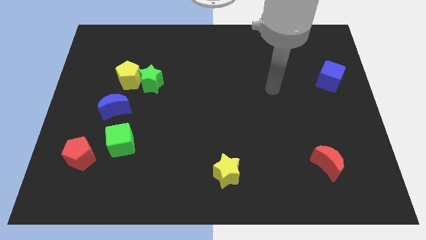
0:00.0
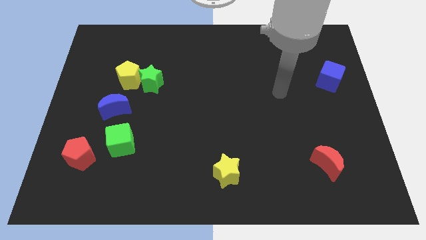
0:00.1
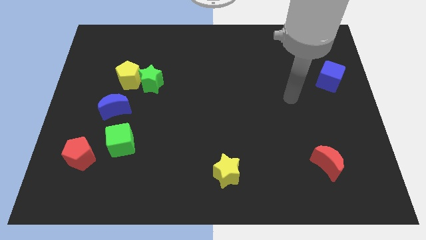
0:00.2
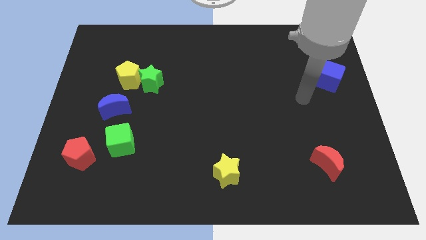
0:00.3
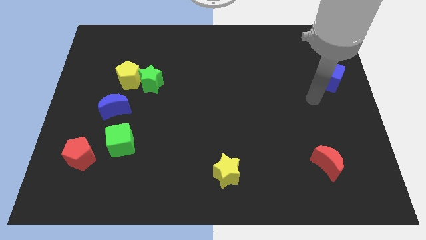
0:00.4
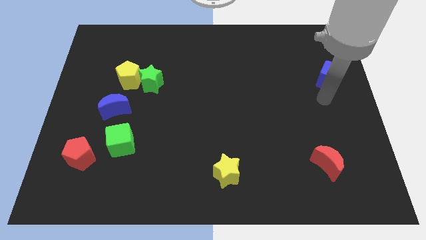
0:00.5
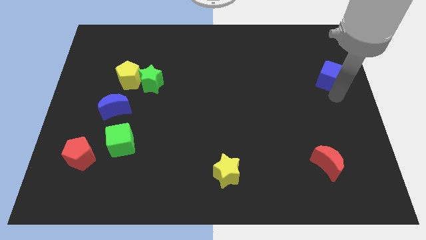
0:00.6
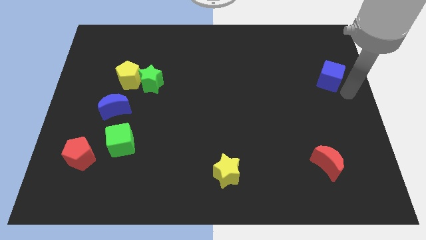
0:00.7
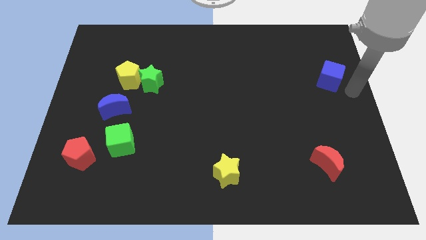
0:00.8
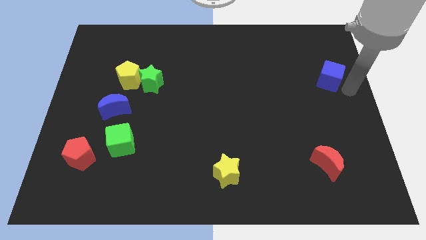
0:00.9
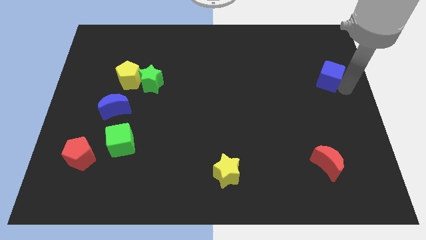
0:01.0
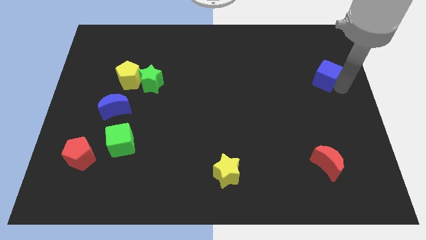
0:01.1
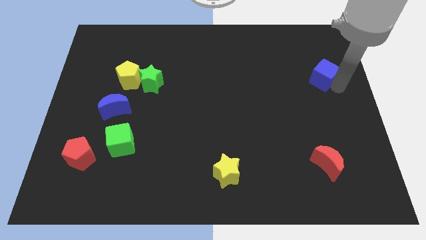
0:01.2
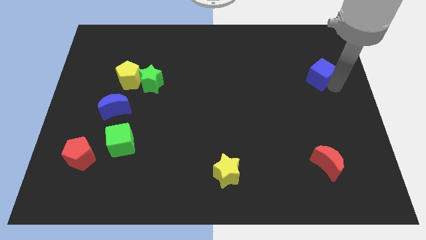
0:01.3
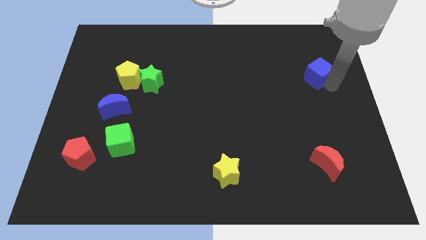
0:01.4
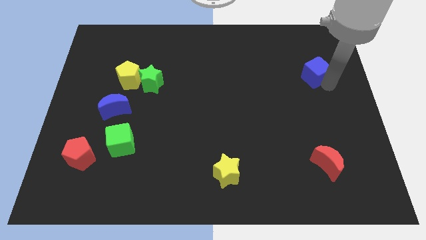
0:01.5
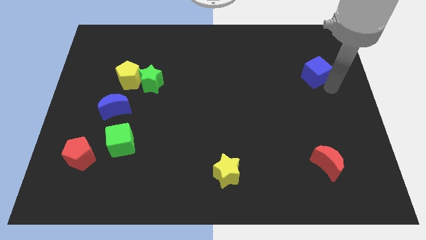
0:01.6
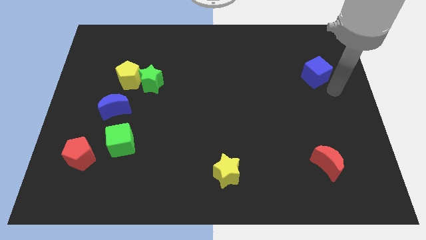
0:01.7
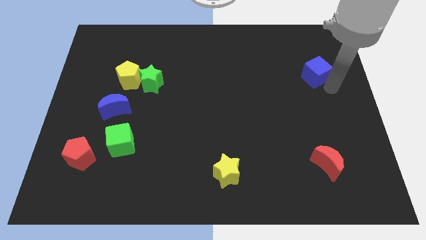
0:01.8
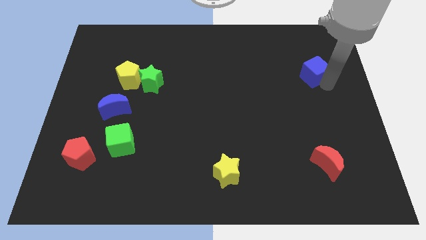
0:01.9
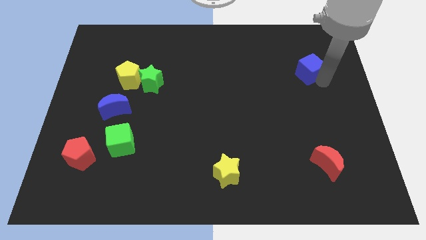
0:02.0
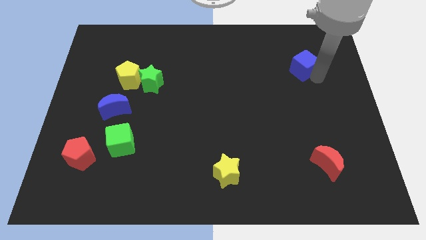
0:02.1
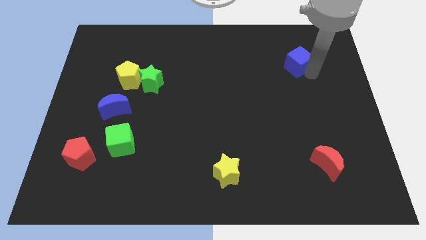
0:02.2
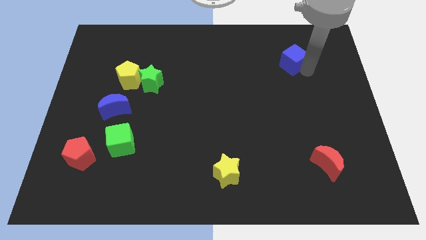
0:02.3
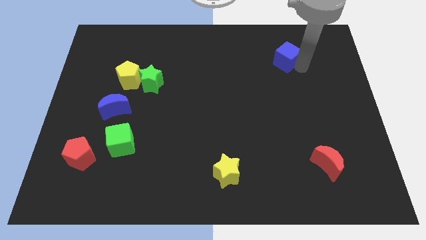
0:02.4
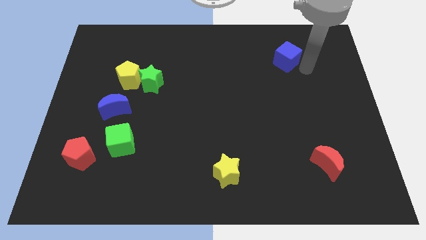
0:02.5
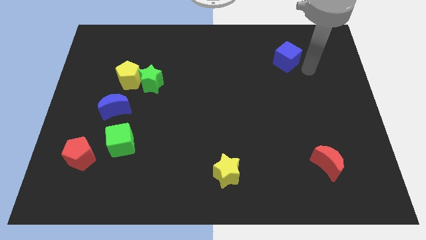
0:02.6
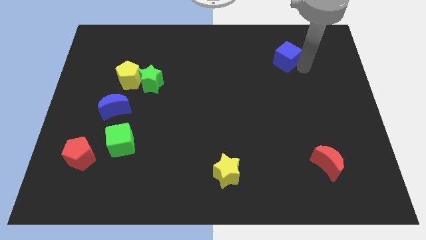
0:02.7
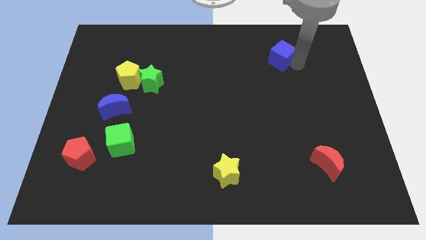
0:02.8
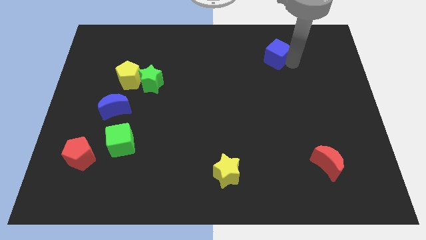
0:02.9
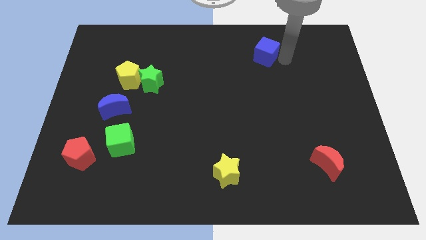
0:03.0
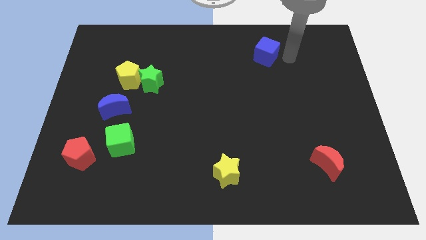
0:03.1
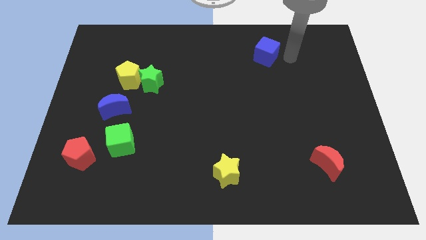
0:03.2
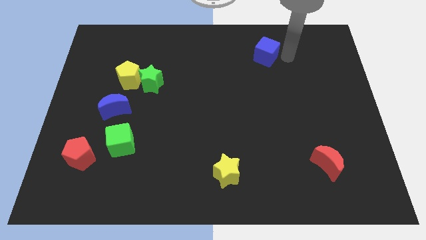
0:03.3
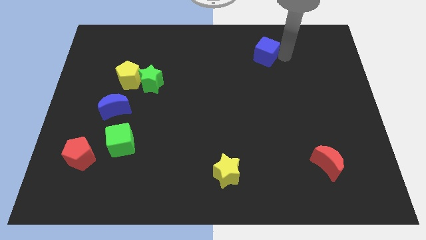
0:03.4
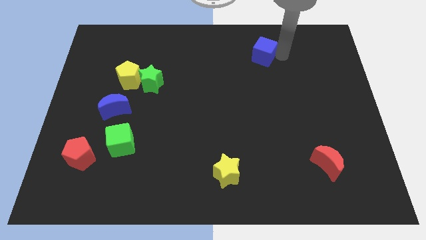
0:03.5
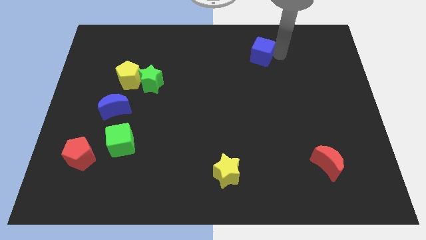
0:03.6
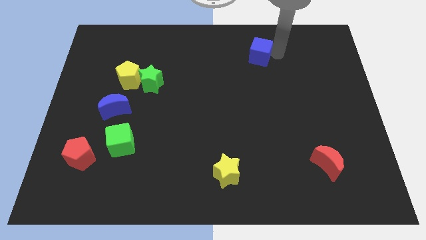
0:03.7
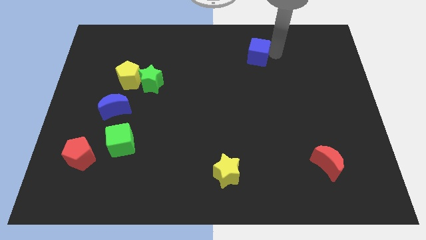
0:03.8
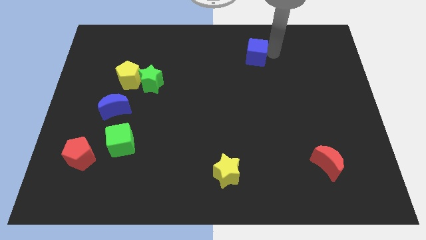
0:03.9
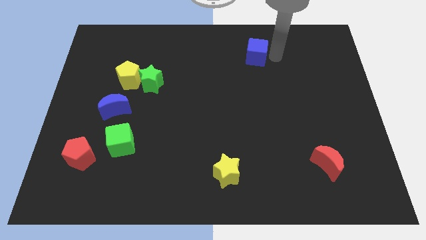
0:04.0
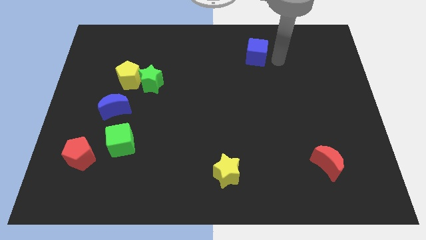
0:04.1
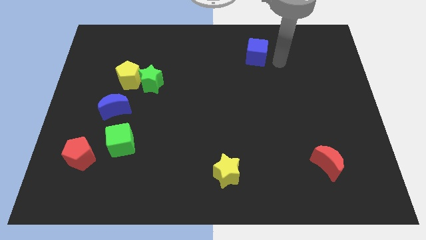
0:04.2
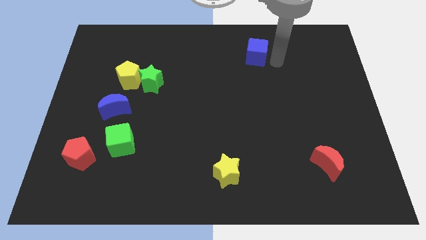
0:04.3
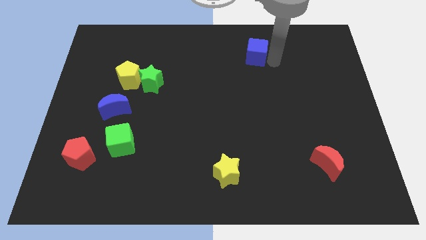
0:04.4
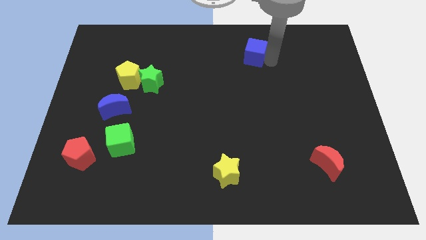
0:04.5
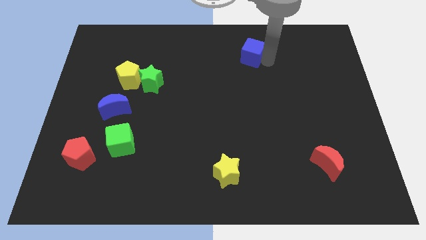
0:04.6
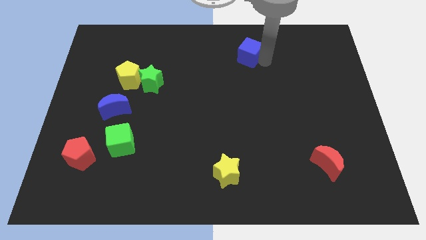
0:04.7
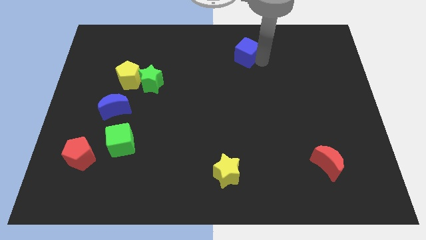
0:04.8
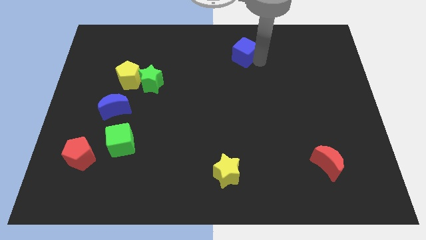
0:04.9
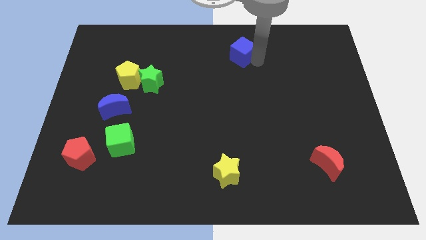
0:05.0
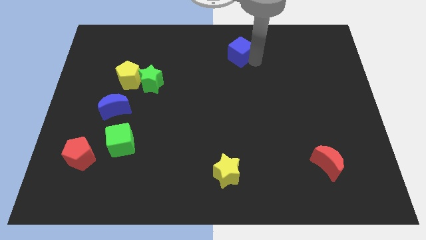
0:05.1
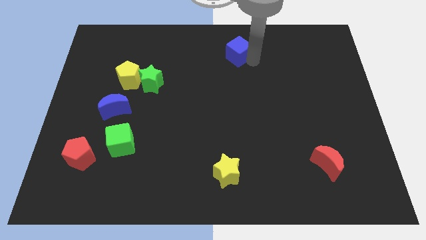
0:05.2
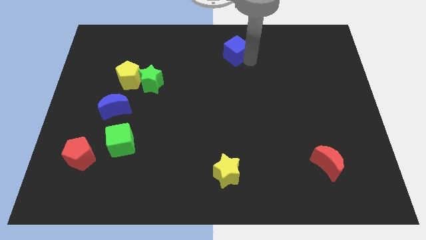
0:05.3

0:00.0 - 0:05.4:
slide the blue cube to the towards your base

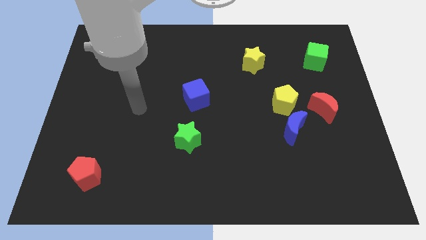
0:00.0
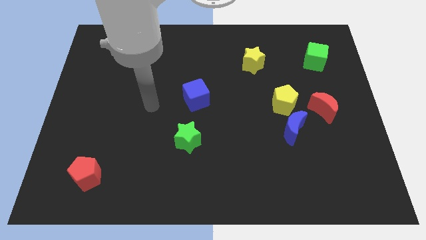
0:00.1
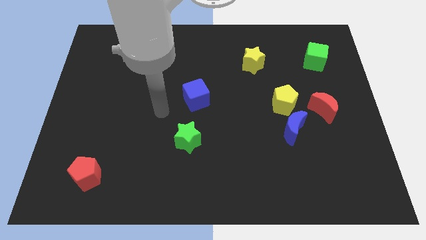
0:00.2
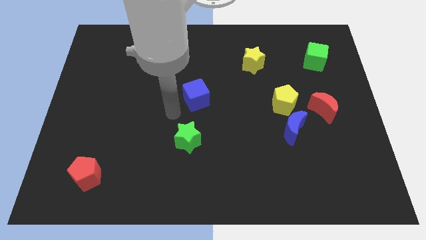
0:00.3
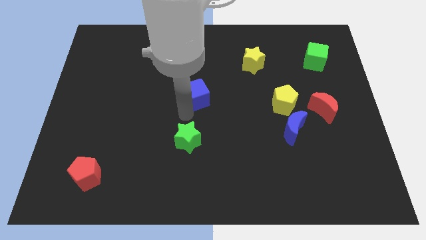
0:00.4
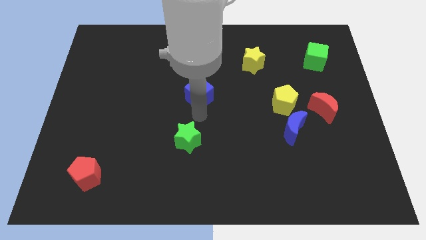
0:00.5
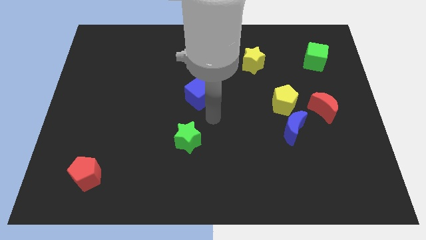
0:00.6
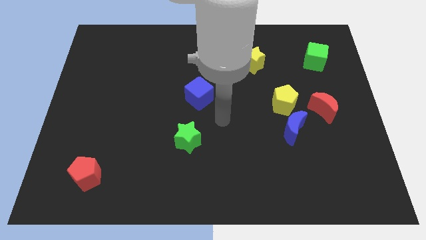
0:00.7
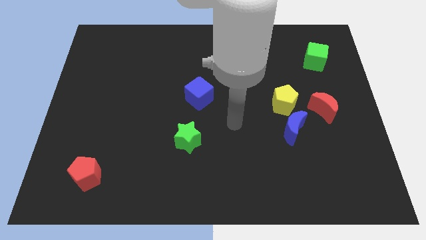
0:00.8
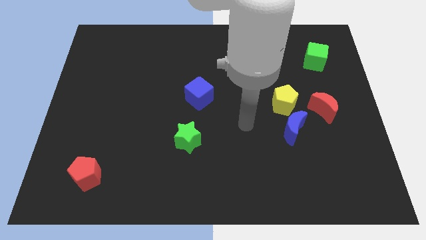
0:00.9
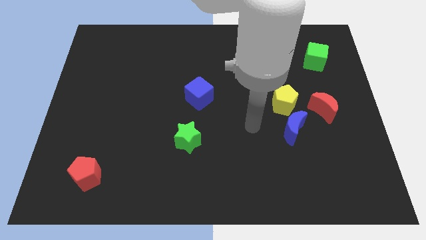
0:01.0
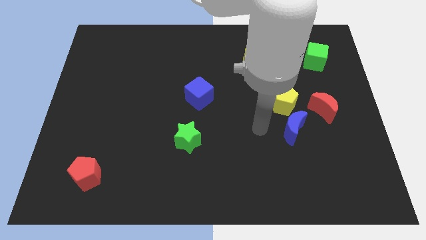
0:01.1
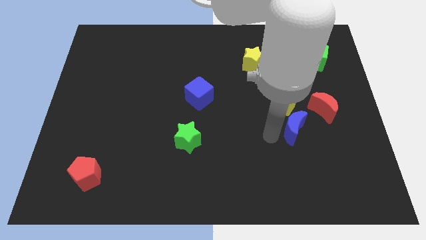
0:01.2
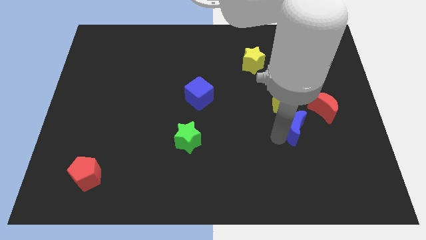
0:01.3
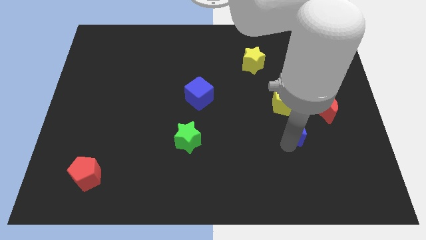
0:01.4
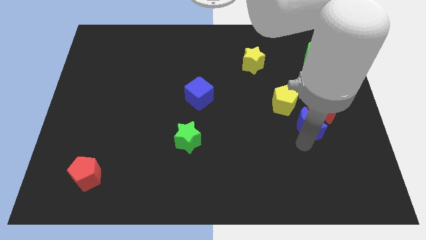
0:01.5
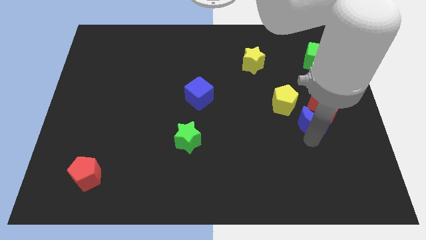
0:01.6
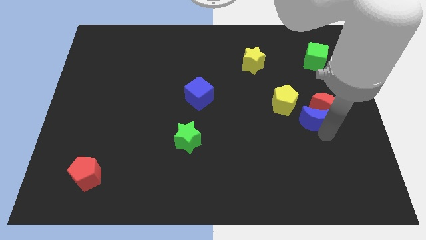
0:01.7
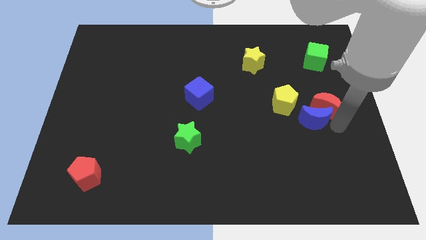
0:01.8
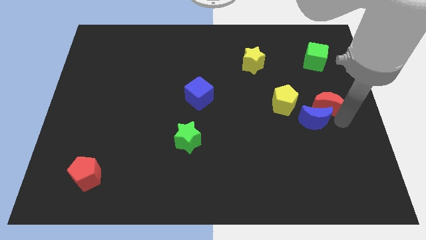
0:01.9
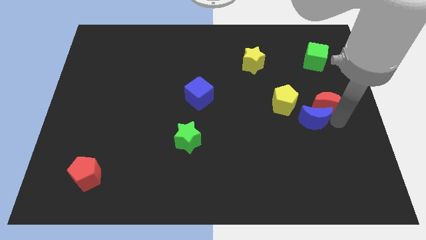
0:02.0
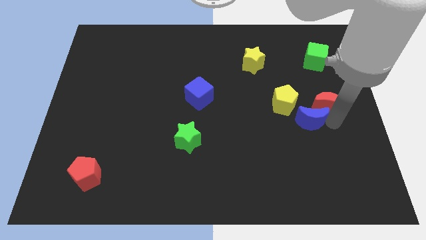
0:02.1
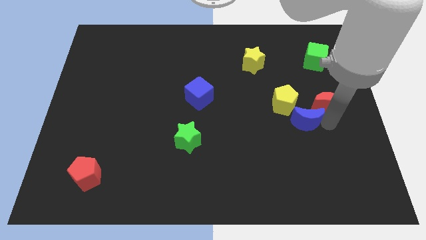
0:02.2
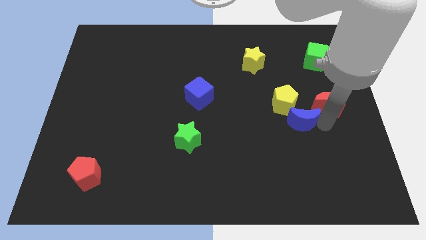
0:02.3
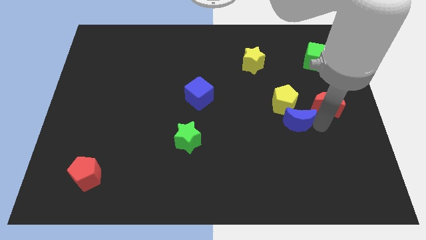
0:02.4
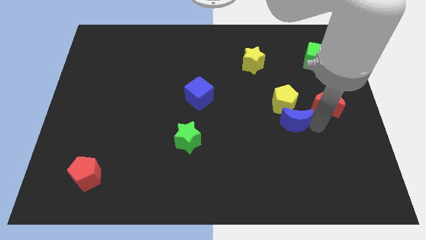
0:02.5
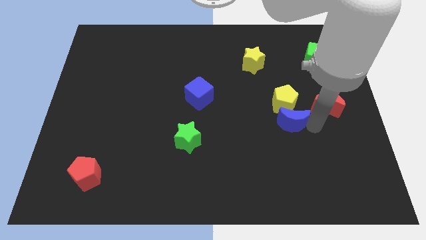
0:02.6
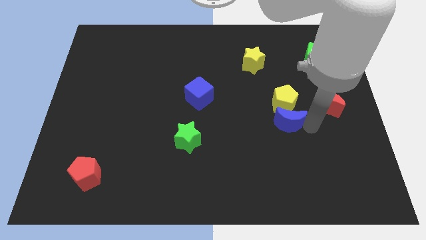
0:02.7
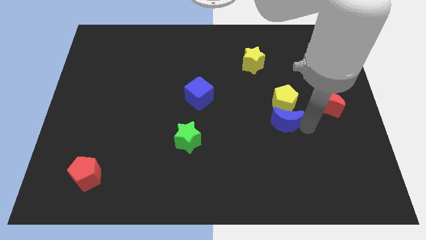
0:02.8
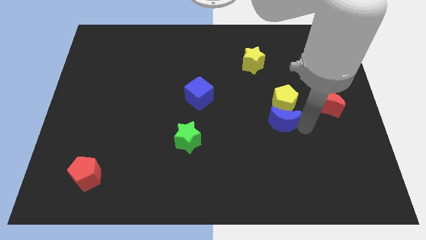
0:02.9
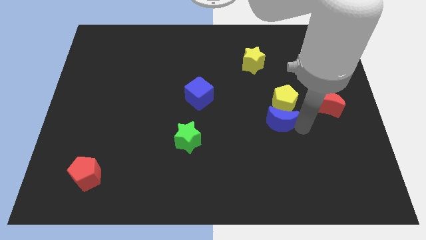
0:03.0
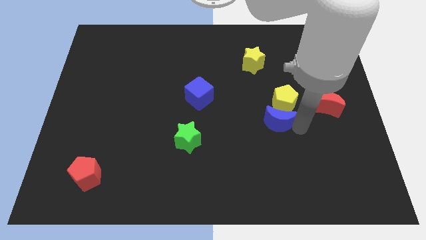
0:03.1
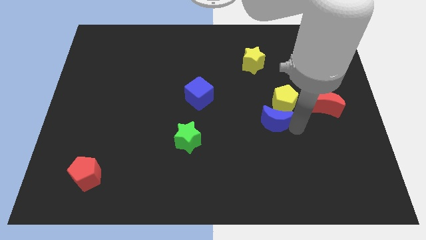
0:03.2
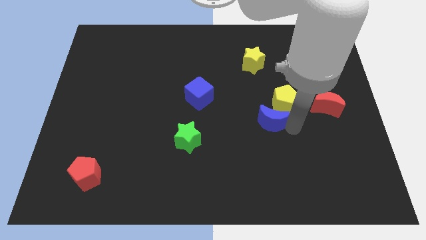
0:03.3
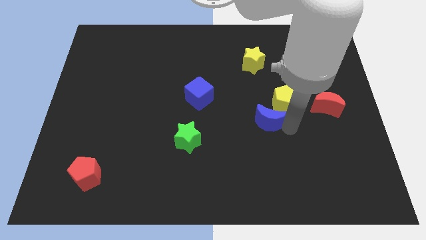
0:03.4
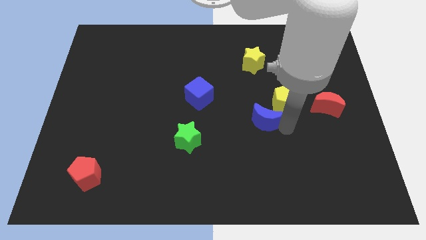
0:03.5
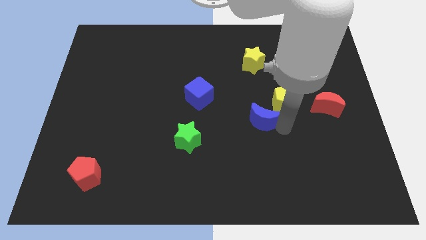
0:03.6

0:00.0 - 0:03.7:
move the blue moon to the center of the board
